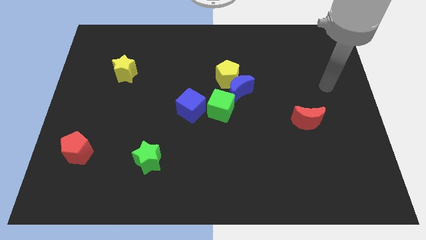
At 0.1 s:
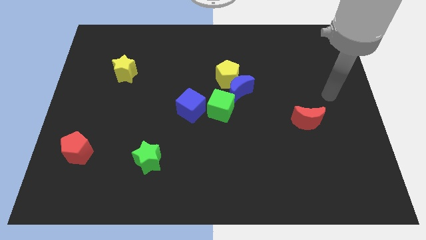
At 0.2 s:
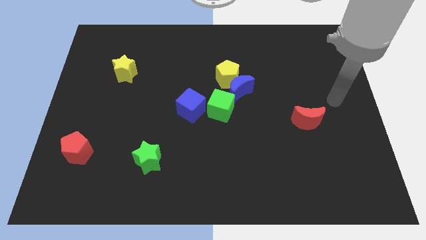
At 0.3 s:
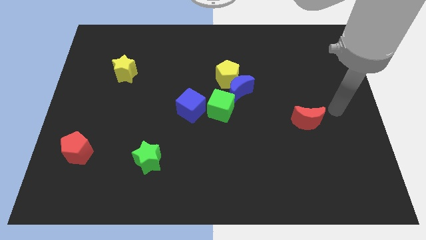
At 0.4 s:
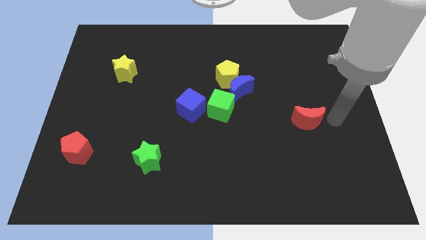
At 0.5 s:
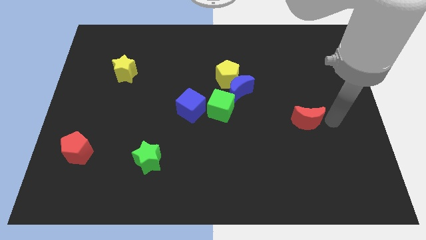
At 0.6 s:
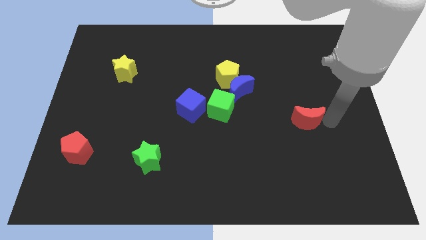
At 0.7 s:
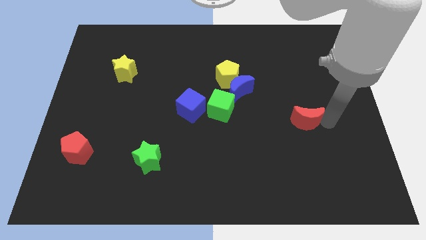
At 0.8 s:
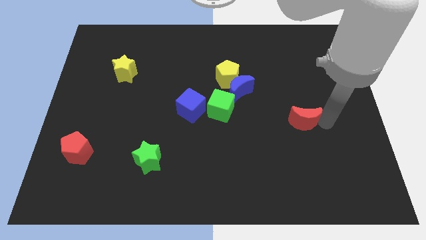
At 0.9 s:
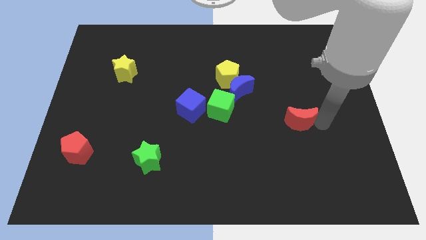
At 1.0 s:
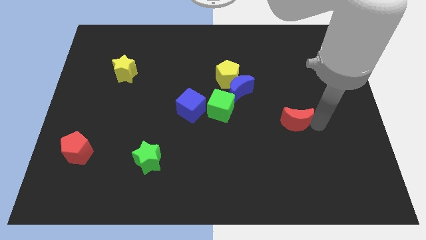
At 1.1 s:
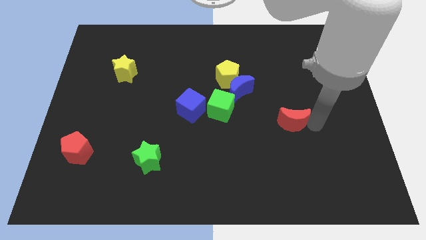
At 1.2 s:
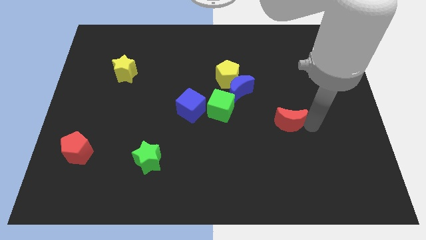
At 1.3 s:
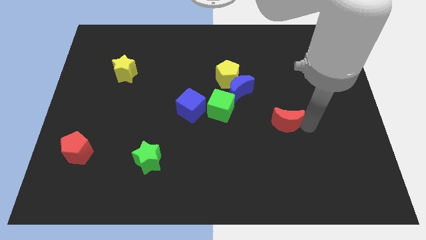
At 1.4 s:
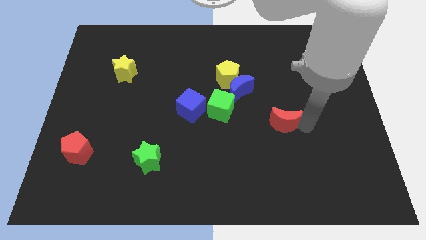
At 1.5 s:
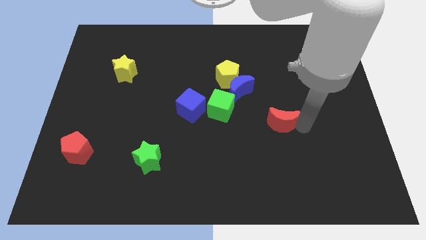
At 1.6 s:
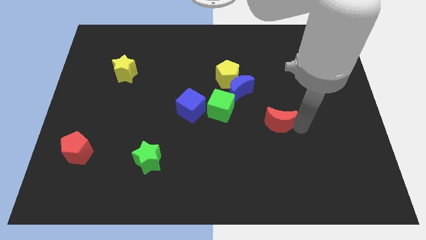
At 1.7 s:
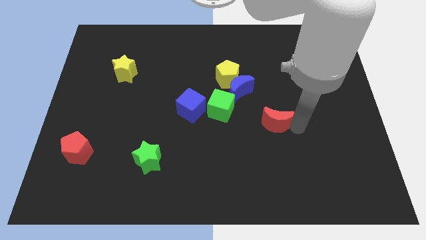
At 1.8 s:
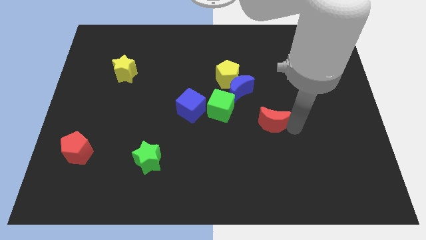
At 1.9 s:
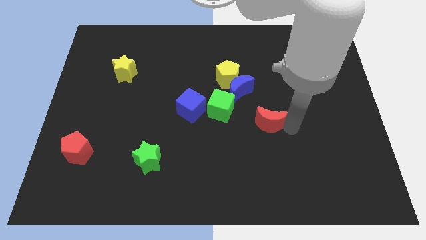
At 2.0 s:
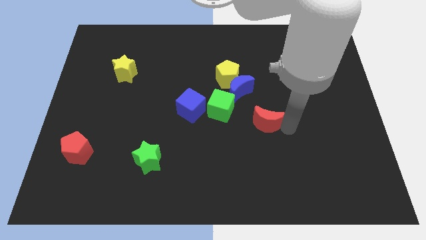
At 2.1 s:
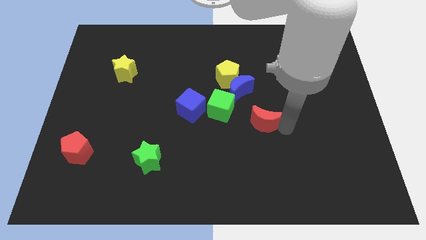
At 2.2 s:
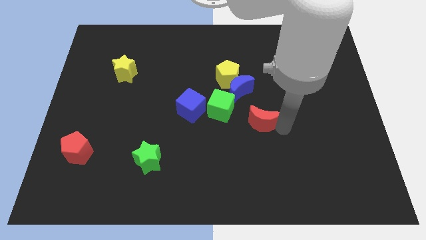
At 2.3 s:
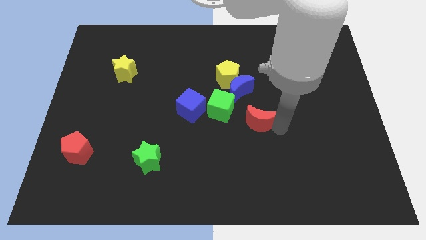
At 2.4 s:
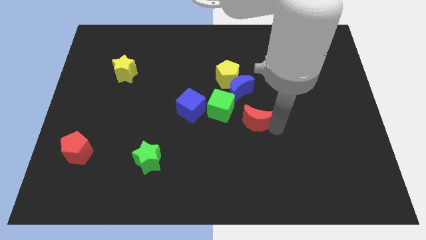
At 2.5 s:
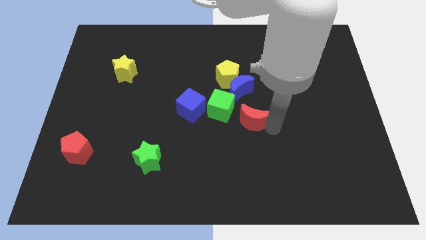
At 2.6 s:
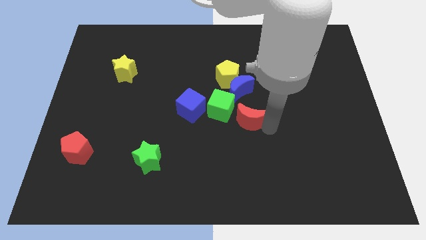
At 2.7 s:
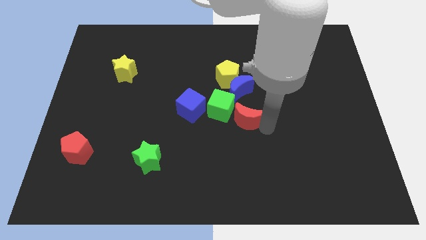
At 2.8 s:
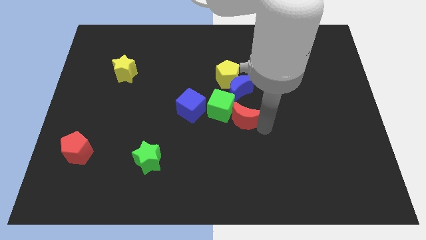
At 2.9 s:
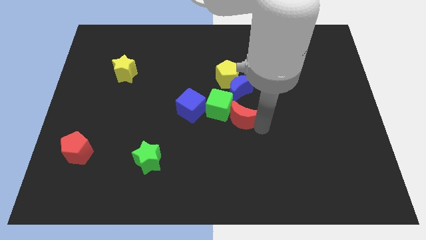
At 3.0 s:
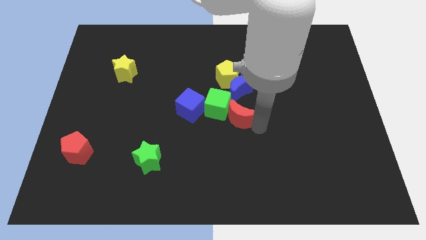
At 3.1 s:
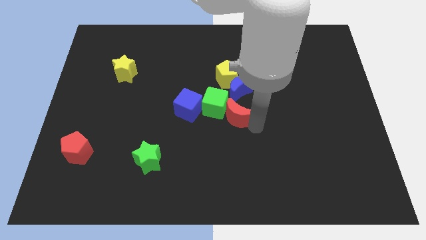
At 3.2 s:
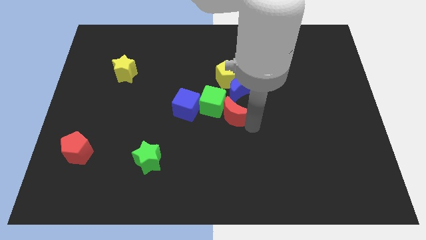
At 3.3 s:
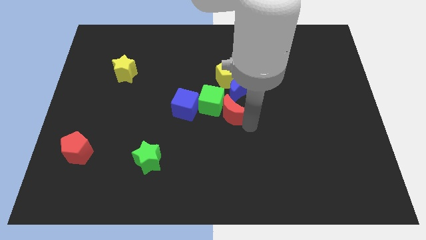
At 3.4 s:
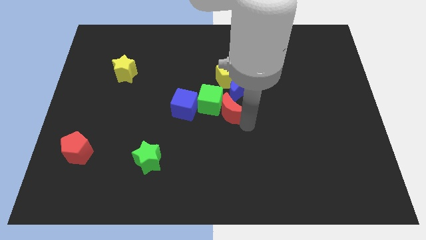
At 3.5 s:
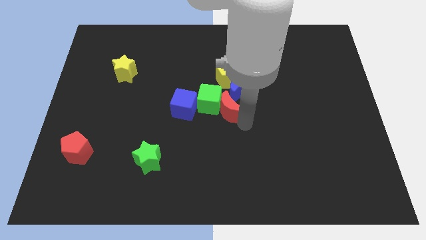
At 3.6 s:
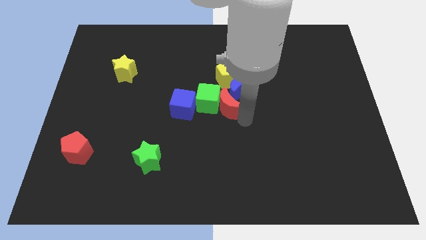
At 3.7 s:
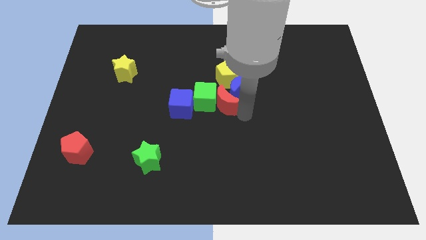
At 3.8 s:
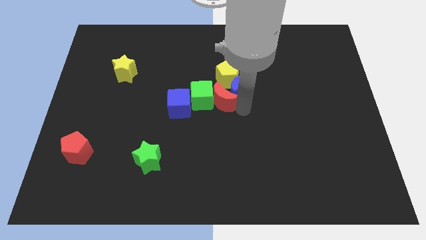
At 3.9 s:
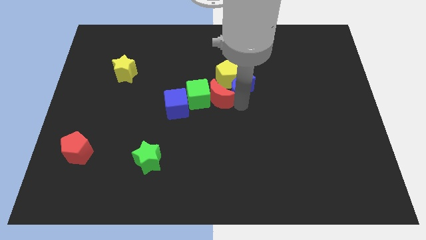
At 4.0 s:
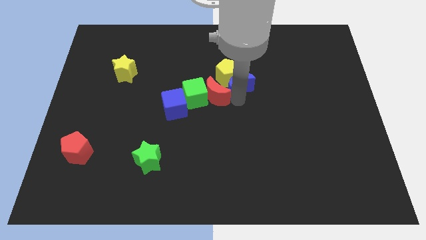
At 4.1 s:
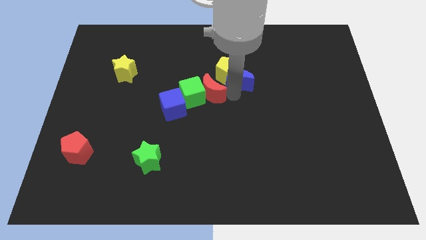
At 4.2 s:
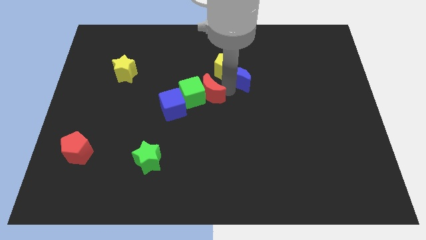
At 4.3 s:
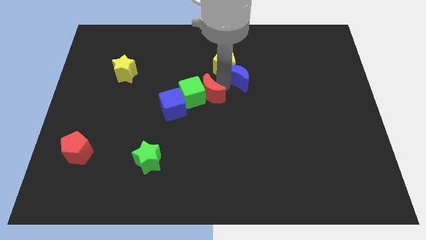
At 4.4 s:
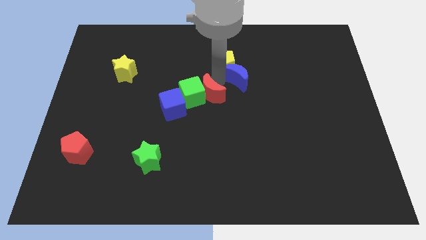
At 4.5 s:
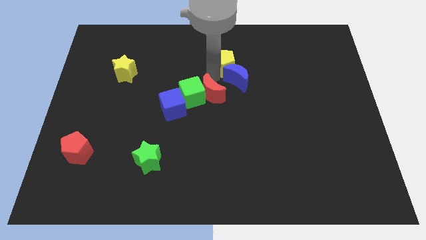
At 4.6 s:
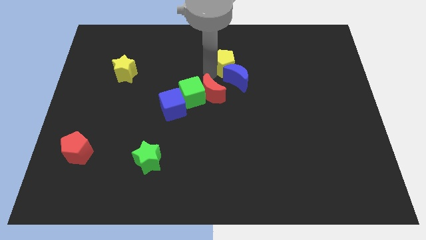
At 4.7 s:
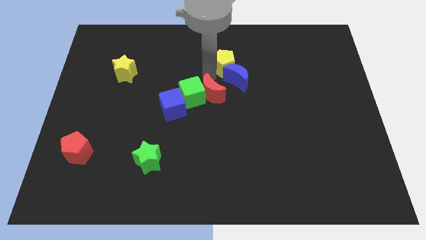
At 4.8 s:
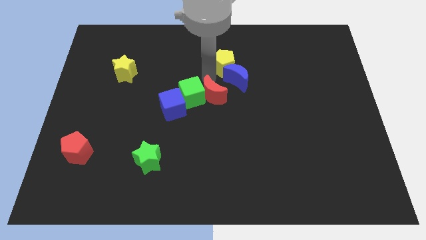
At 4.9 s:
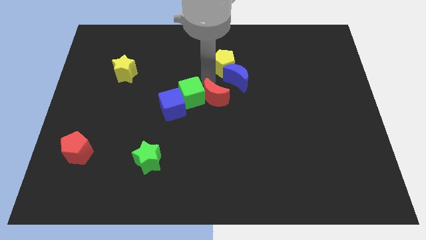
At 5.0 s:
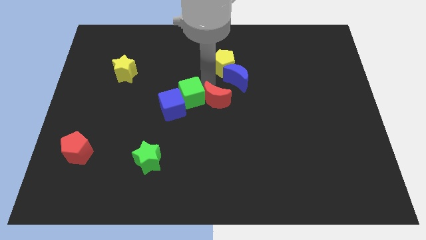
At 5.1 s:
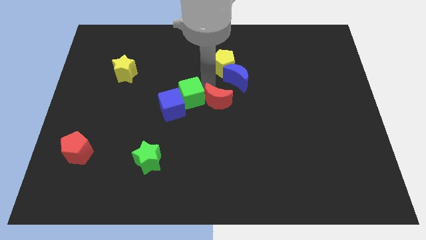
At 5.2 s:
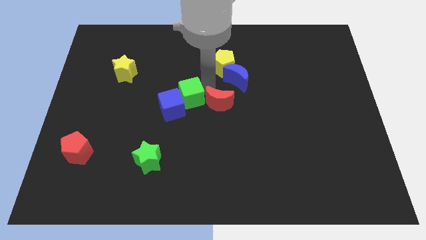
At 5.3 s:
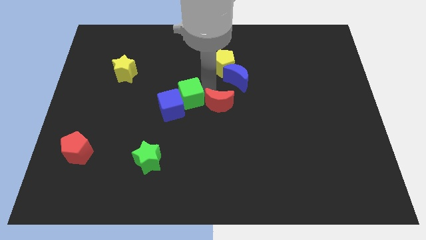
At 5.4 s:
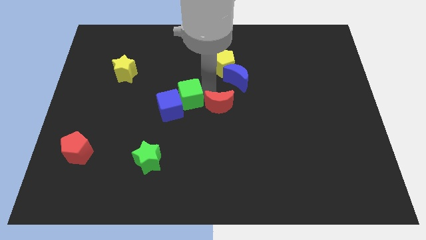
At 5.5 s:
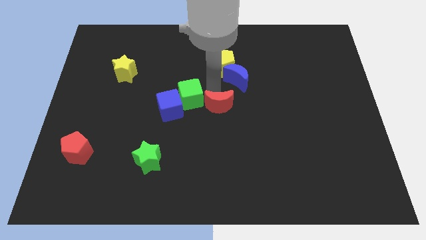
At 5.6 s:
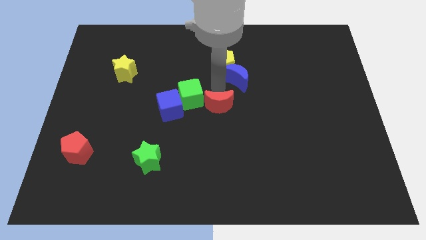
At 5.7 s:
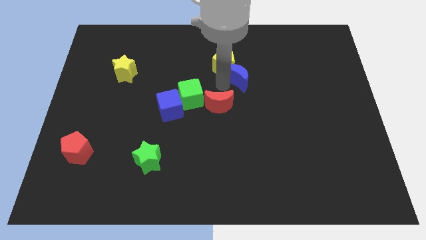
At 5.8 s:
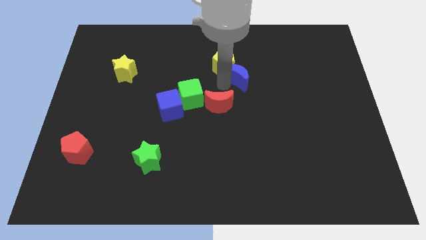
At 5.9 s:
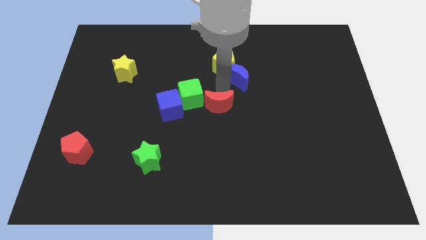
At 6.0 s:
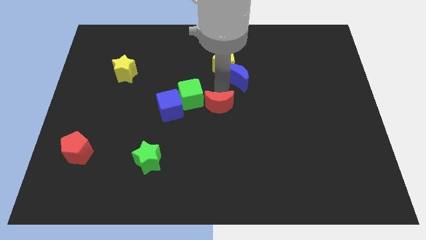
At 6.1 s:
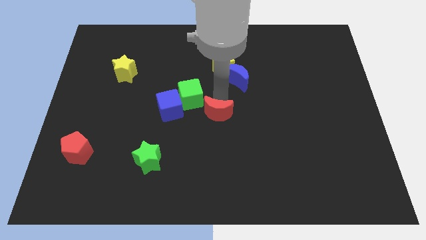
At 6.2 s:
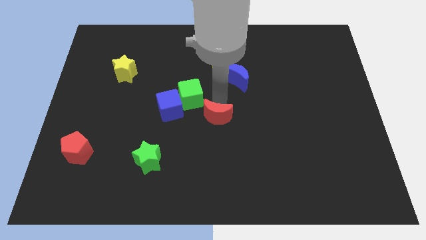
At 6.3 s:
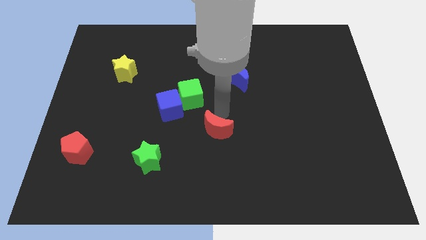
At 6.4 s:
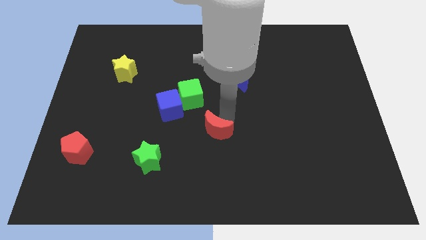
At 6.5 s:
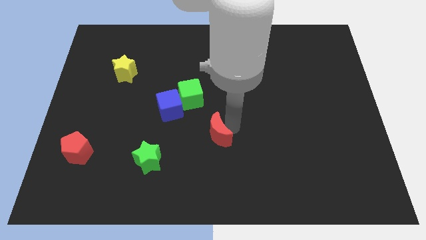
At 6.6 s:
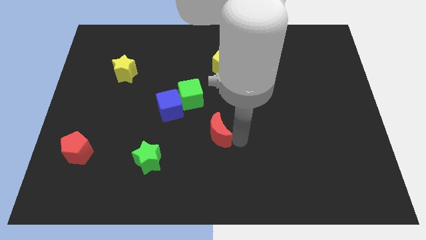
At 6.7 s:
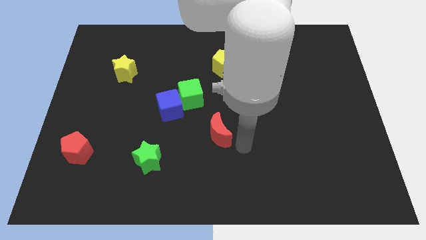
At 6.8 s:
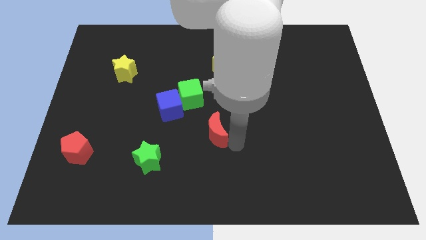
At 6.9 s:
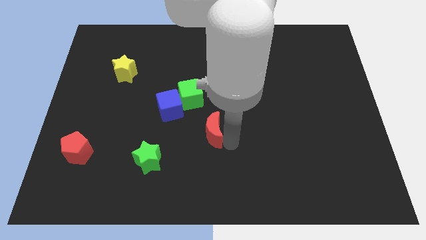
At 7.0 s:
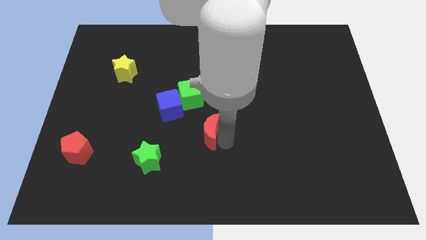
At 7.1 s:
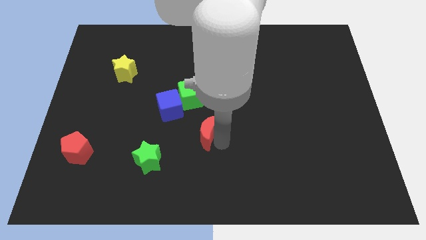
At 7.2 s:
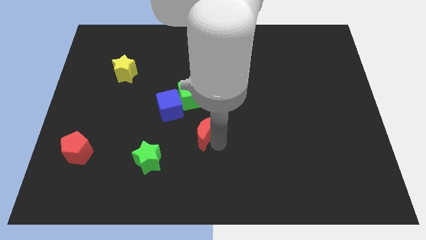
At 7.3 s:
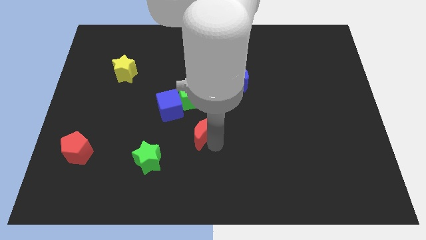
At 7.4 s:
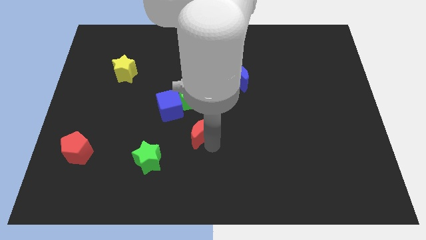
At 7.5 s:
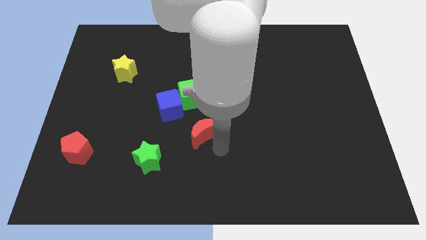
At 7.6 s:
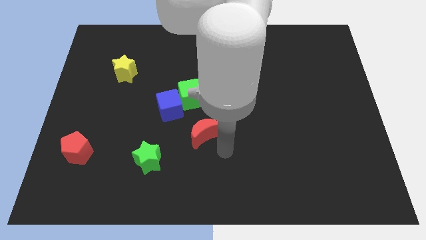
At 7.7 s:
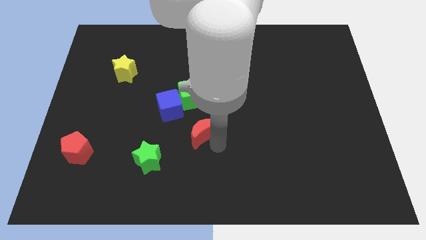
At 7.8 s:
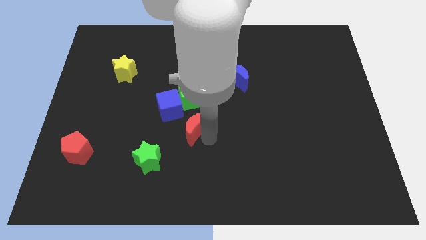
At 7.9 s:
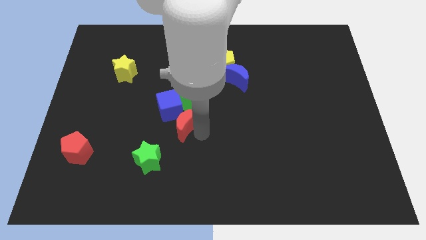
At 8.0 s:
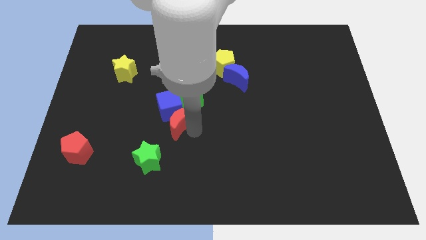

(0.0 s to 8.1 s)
move the red moon towards the blue cube
